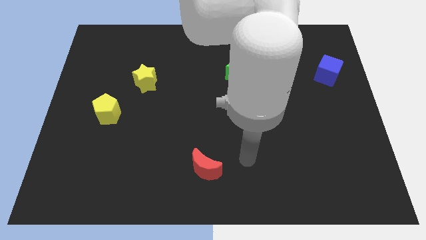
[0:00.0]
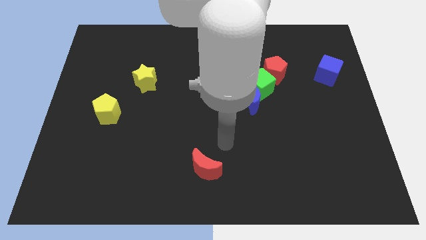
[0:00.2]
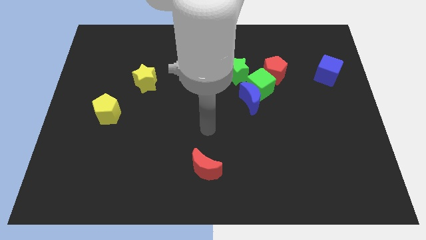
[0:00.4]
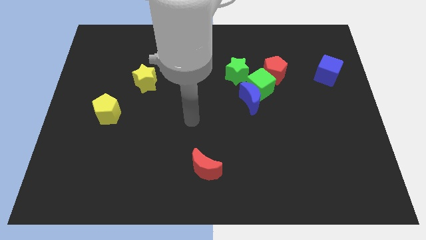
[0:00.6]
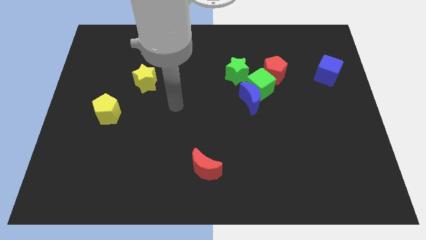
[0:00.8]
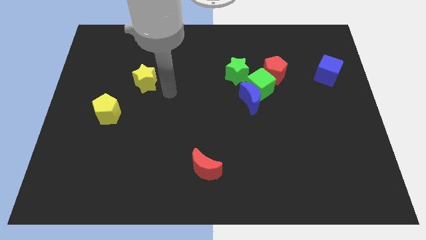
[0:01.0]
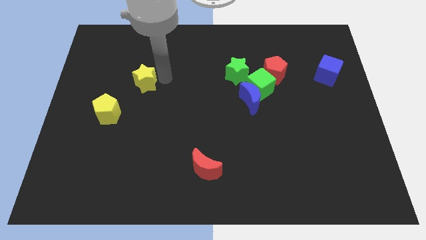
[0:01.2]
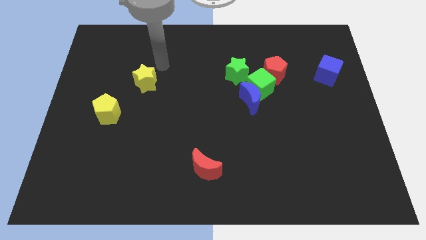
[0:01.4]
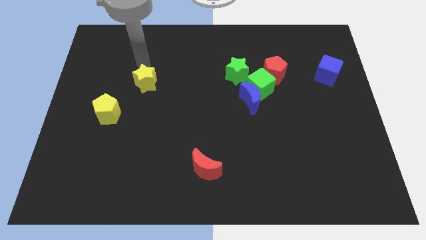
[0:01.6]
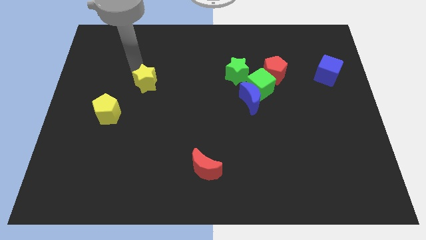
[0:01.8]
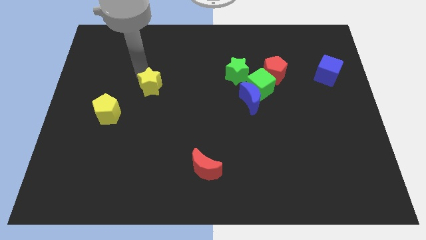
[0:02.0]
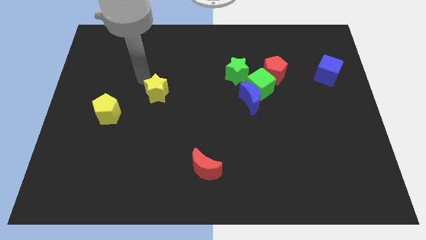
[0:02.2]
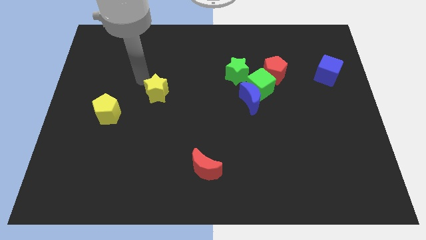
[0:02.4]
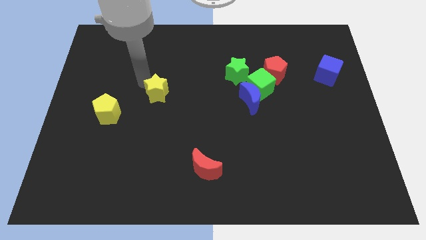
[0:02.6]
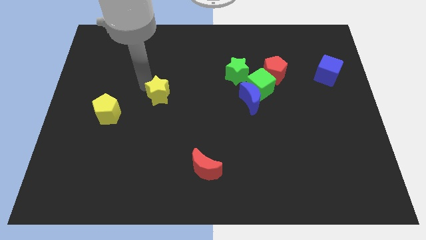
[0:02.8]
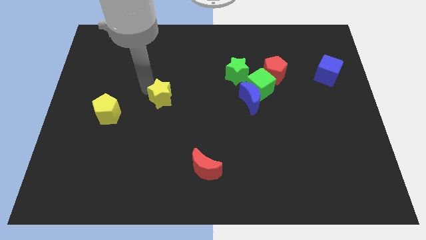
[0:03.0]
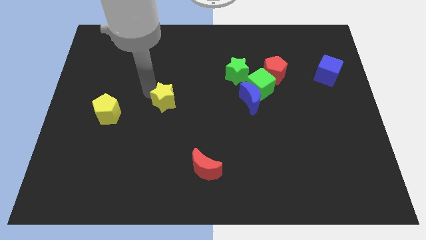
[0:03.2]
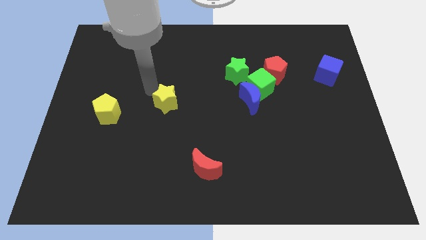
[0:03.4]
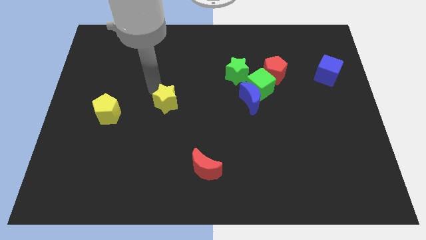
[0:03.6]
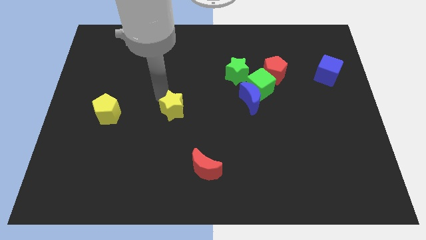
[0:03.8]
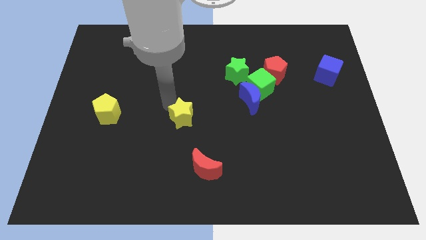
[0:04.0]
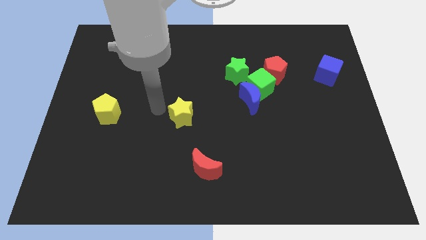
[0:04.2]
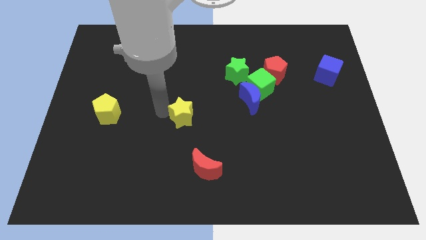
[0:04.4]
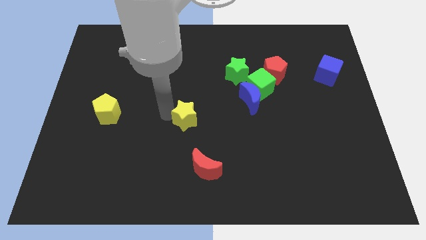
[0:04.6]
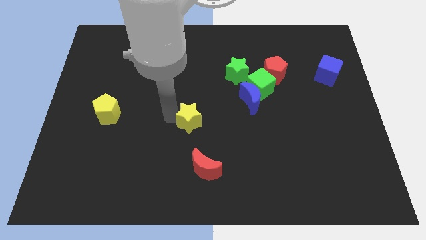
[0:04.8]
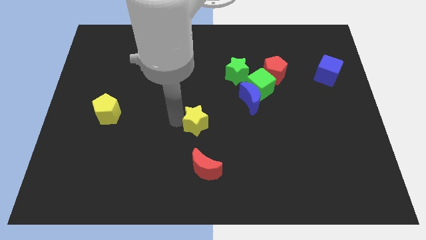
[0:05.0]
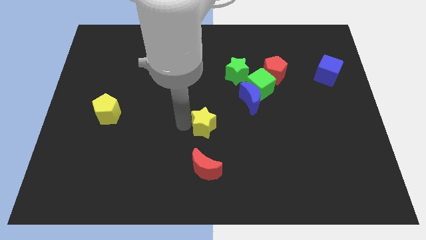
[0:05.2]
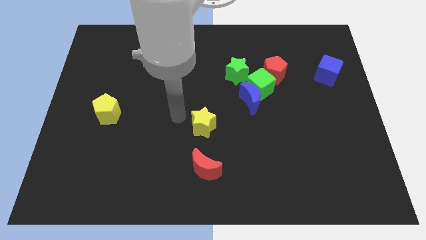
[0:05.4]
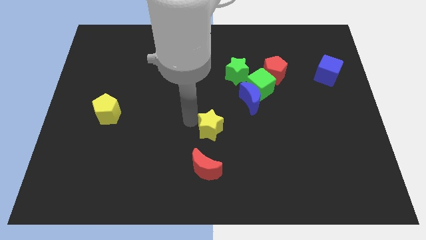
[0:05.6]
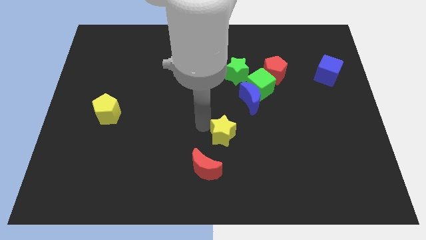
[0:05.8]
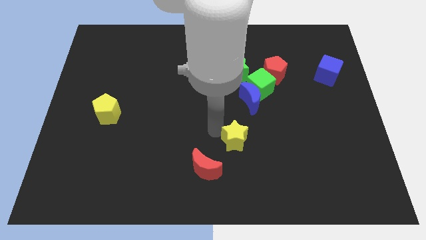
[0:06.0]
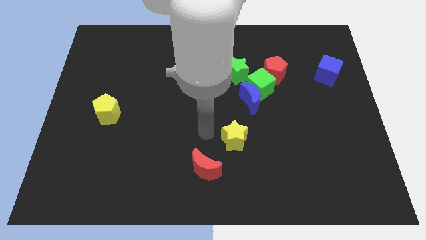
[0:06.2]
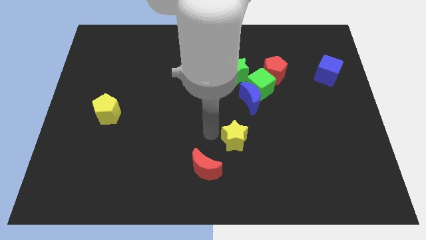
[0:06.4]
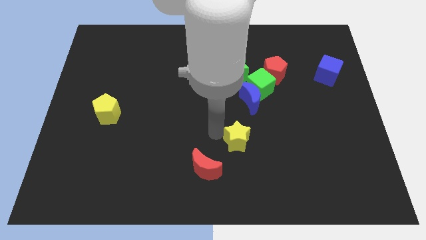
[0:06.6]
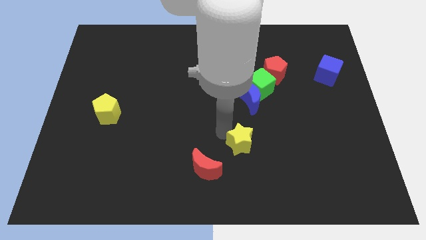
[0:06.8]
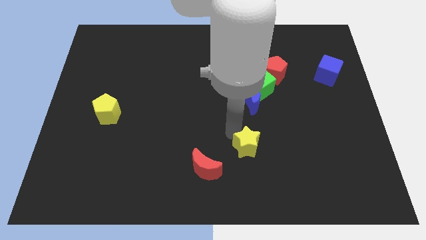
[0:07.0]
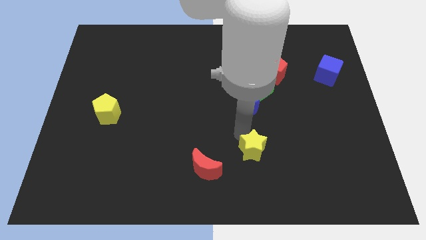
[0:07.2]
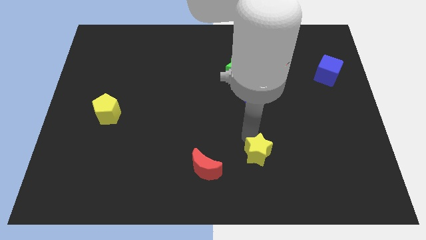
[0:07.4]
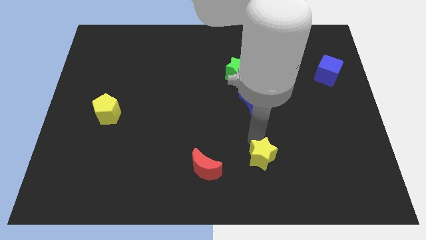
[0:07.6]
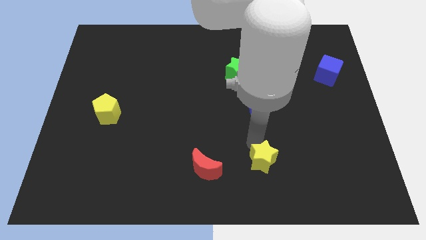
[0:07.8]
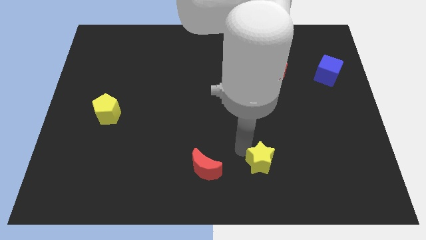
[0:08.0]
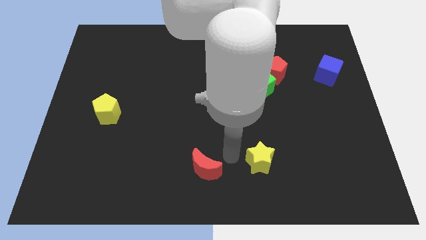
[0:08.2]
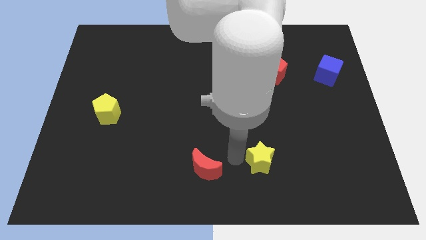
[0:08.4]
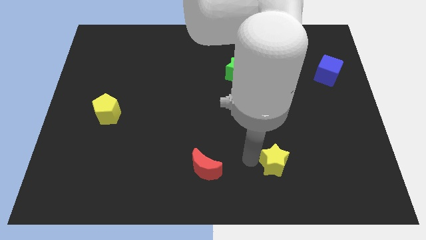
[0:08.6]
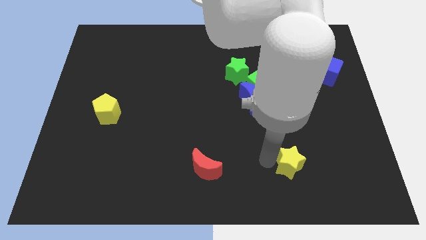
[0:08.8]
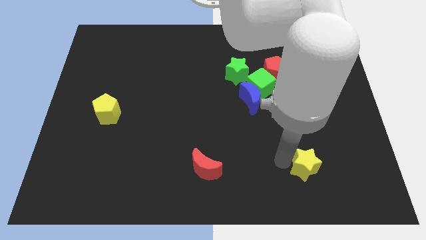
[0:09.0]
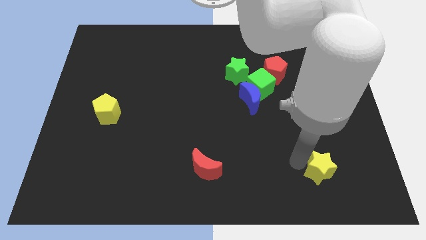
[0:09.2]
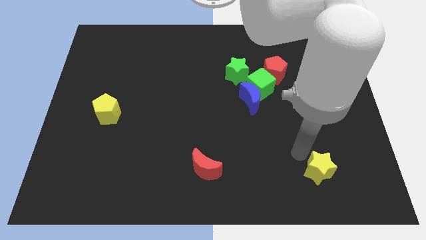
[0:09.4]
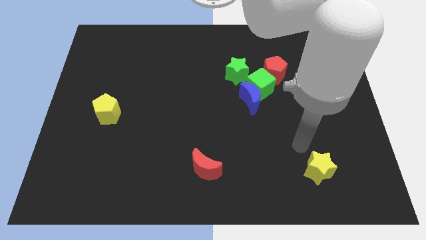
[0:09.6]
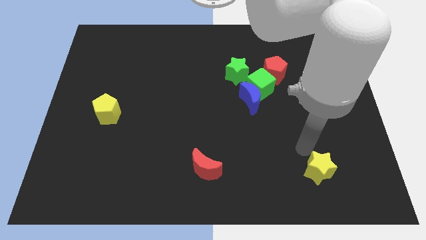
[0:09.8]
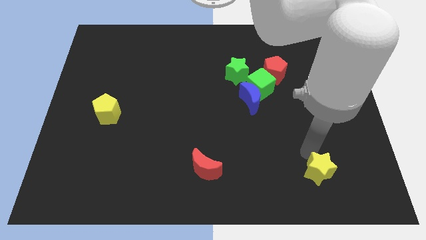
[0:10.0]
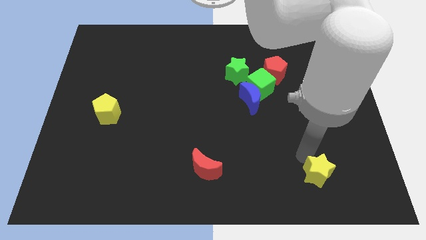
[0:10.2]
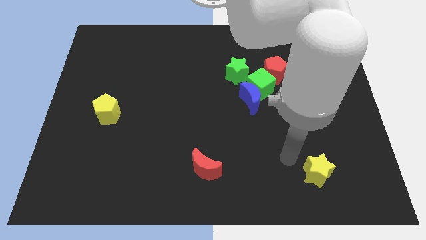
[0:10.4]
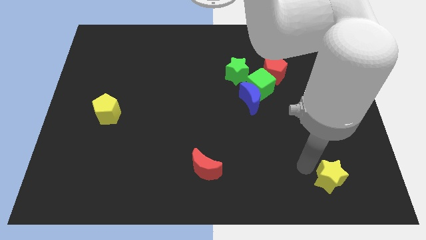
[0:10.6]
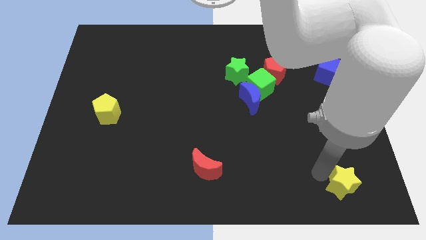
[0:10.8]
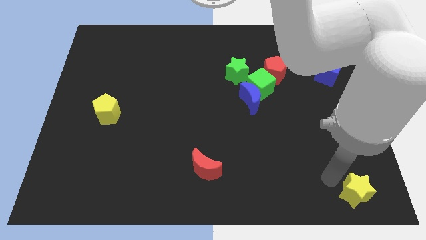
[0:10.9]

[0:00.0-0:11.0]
push the yellow star to the bottom right

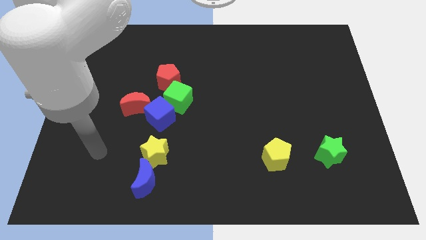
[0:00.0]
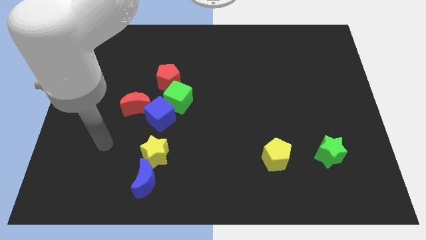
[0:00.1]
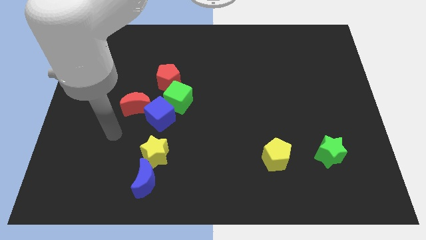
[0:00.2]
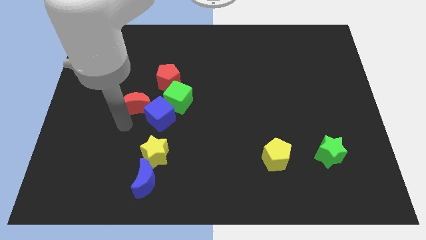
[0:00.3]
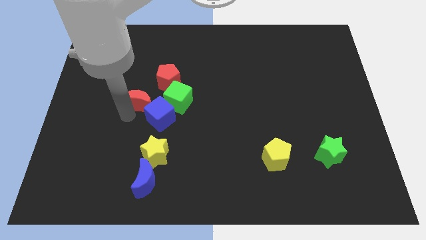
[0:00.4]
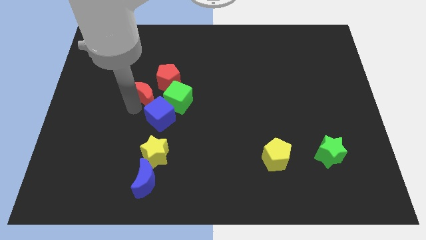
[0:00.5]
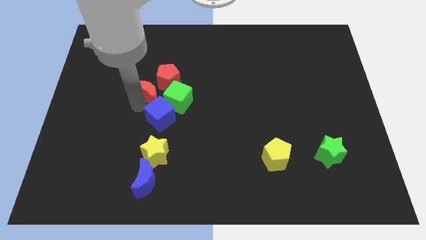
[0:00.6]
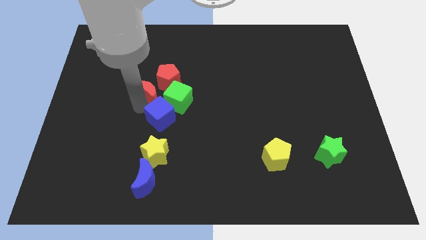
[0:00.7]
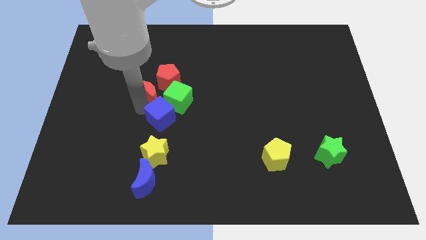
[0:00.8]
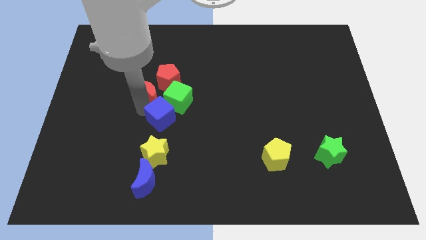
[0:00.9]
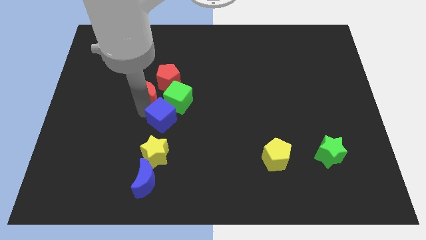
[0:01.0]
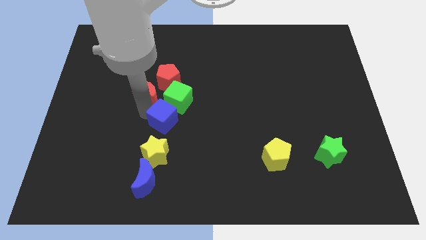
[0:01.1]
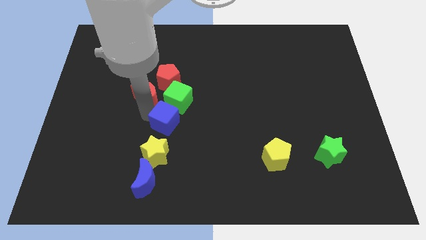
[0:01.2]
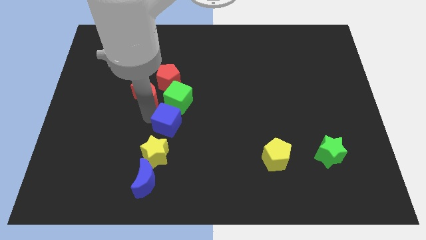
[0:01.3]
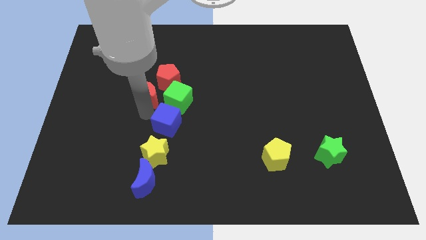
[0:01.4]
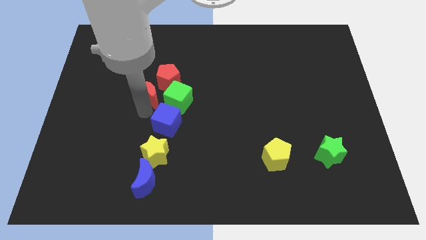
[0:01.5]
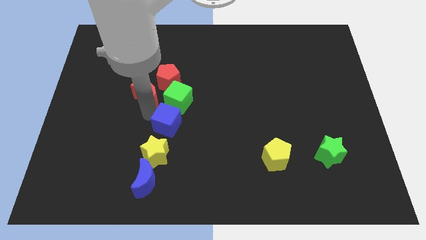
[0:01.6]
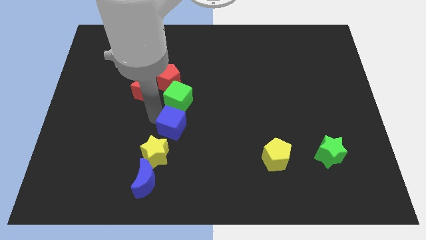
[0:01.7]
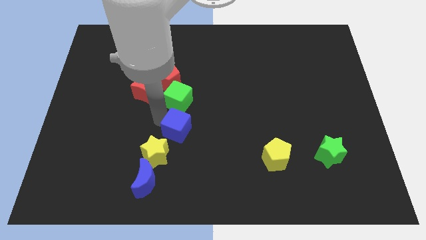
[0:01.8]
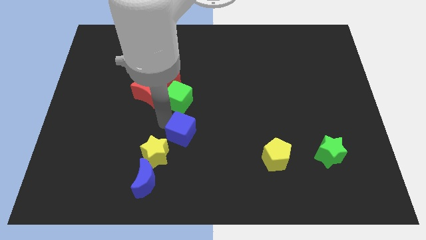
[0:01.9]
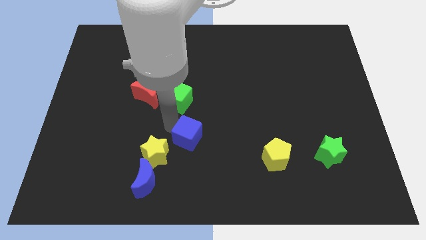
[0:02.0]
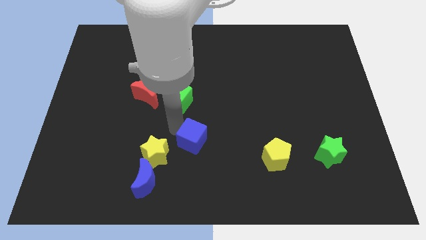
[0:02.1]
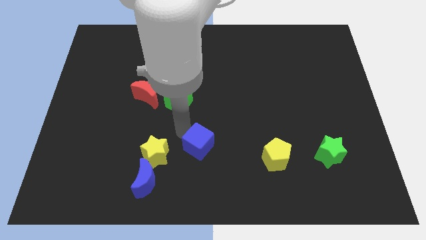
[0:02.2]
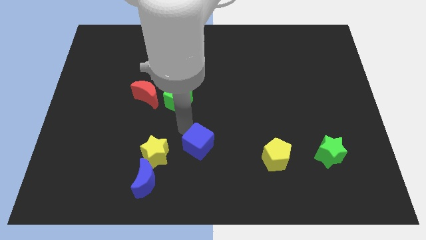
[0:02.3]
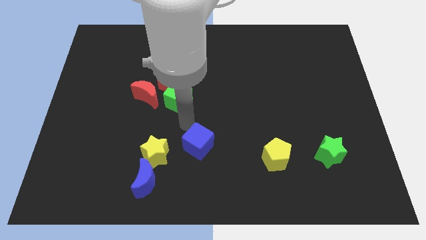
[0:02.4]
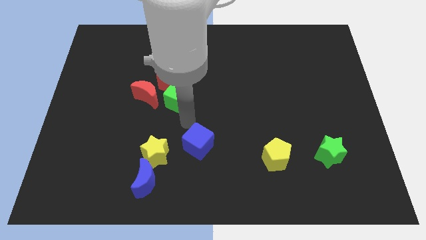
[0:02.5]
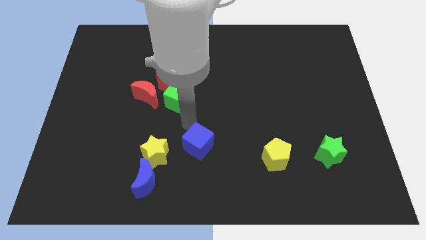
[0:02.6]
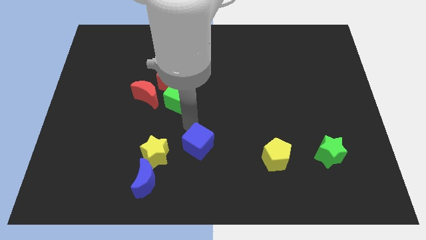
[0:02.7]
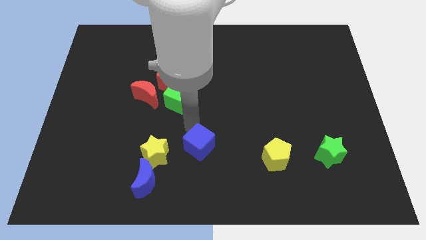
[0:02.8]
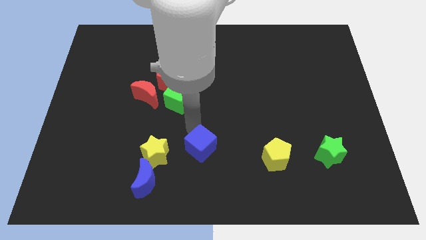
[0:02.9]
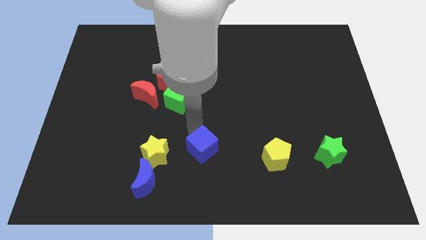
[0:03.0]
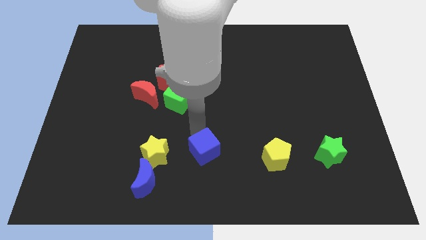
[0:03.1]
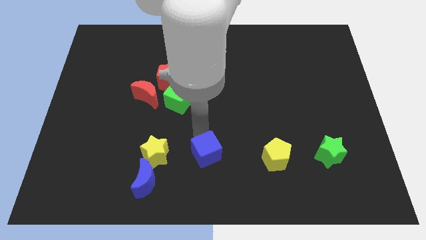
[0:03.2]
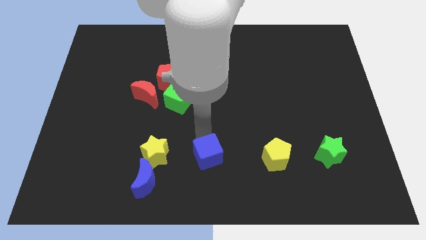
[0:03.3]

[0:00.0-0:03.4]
put the blue cube to the bottom
